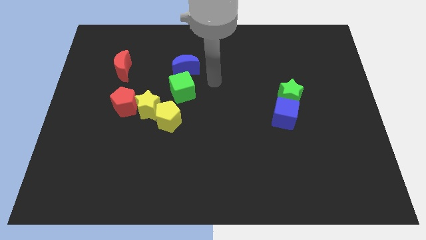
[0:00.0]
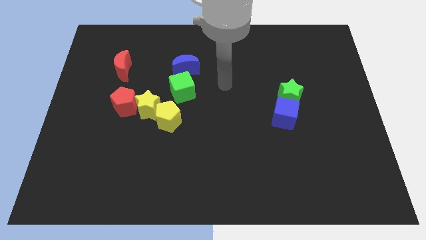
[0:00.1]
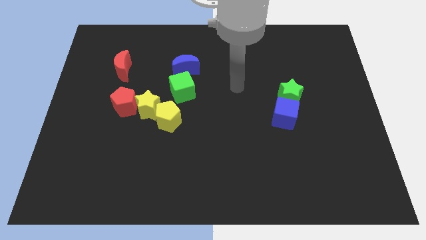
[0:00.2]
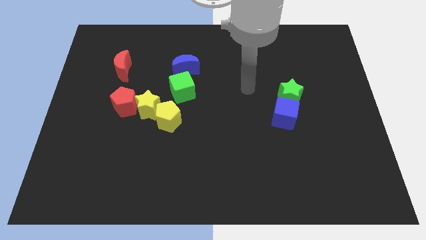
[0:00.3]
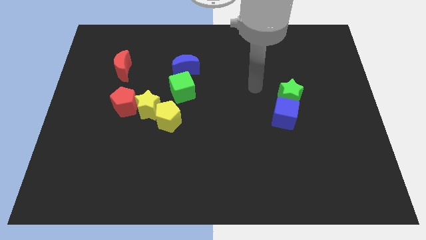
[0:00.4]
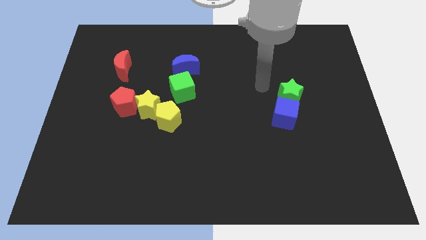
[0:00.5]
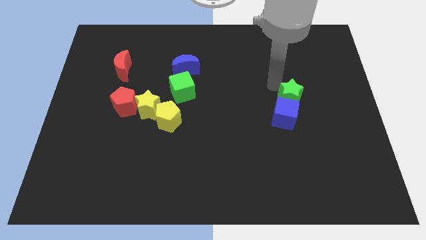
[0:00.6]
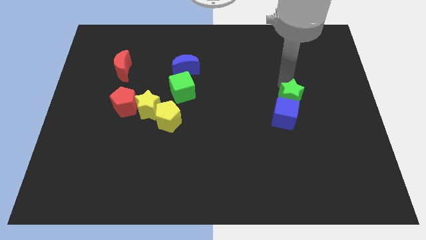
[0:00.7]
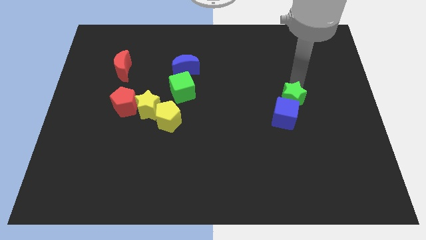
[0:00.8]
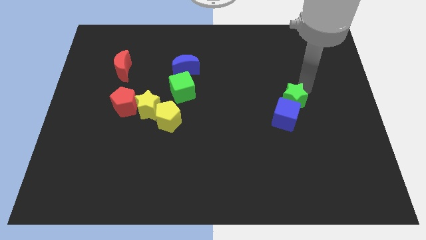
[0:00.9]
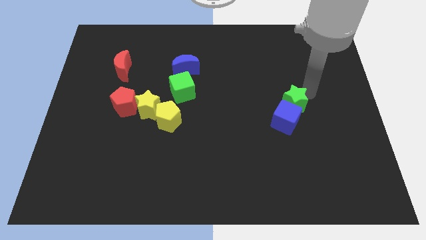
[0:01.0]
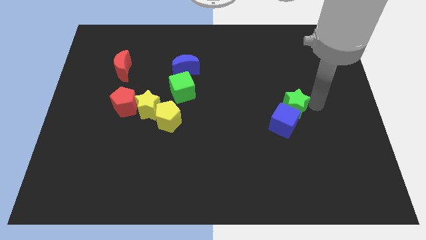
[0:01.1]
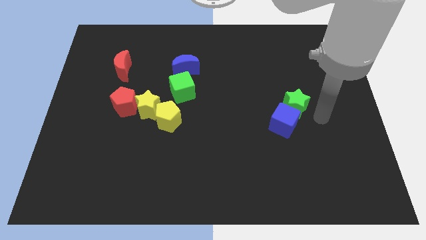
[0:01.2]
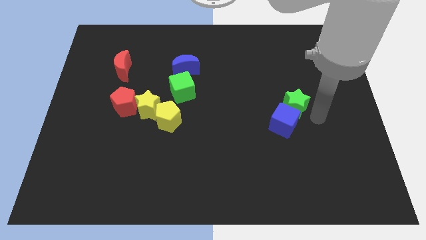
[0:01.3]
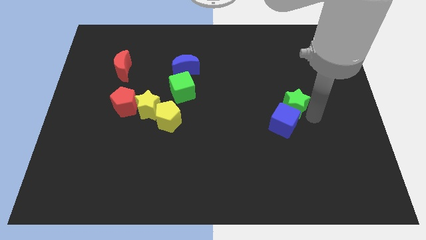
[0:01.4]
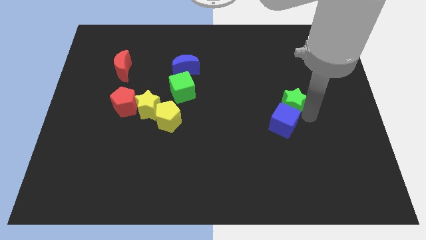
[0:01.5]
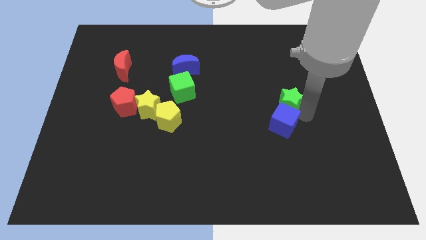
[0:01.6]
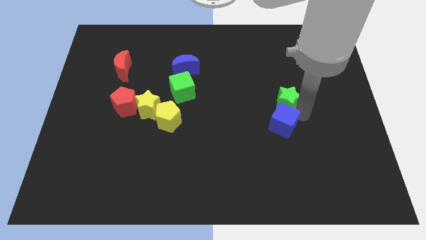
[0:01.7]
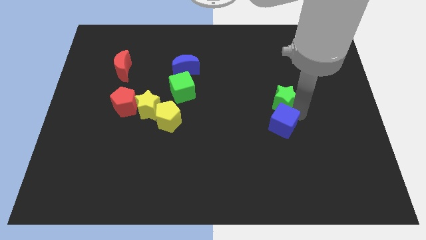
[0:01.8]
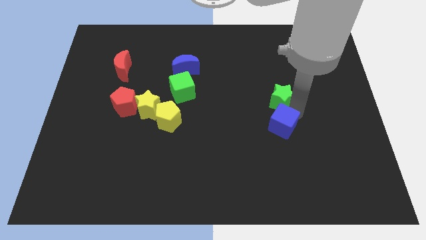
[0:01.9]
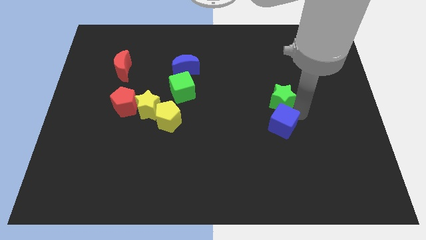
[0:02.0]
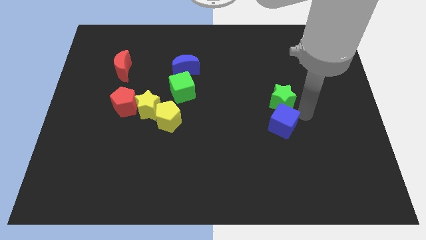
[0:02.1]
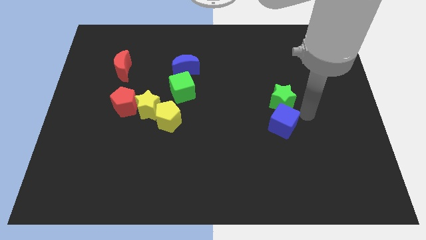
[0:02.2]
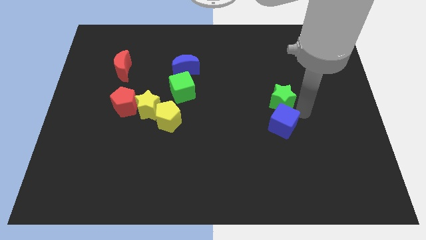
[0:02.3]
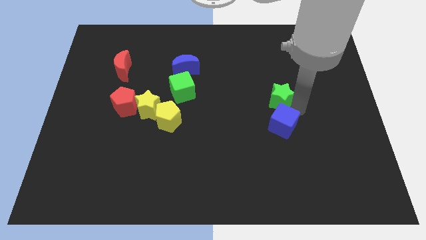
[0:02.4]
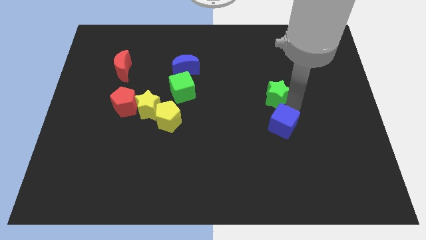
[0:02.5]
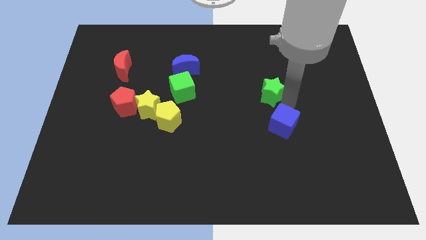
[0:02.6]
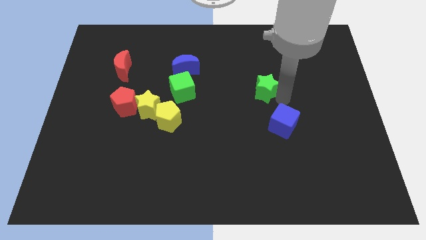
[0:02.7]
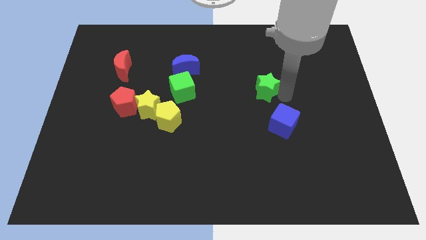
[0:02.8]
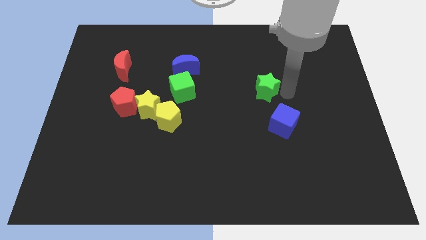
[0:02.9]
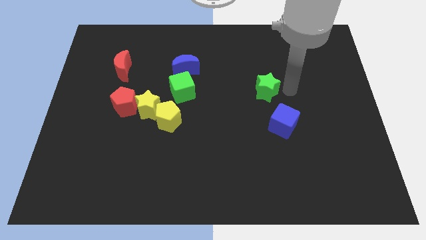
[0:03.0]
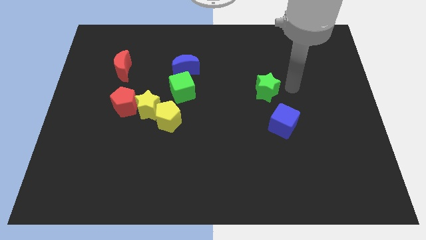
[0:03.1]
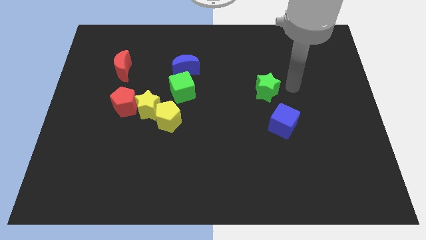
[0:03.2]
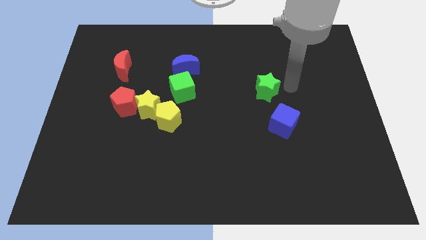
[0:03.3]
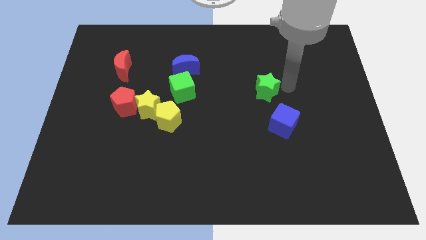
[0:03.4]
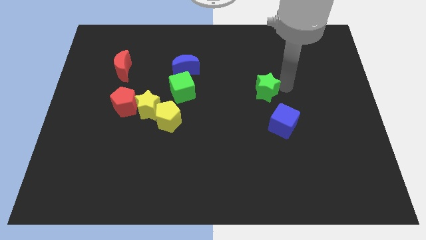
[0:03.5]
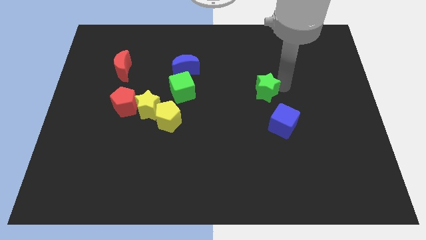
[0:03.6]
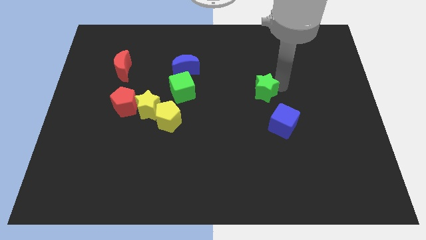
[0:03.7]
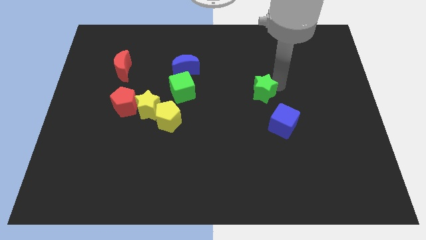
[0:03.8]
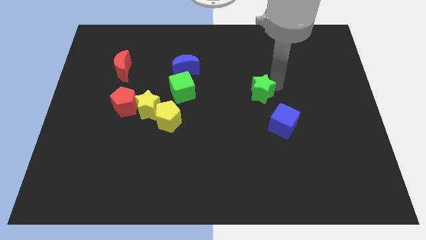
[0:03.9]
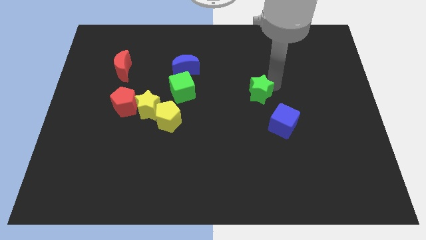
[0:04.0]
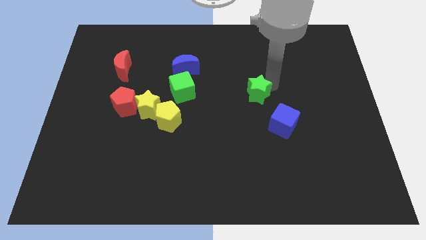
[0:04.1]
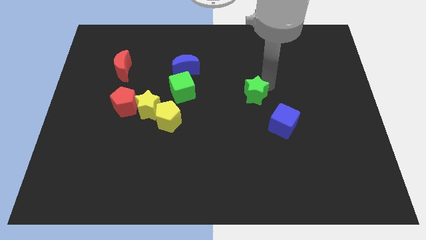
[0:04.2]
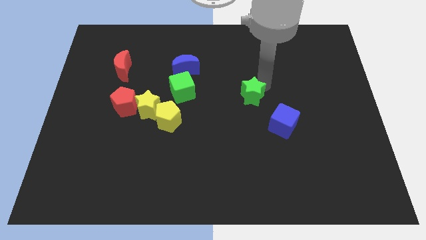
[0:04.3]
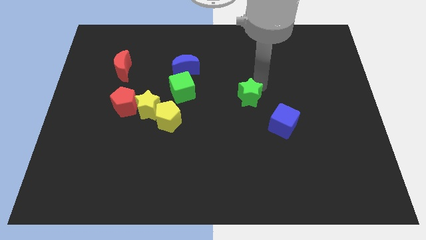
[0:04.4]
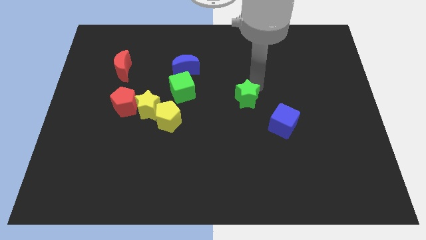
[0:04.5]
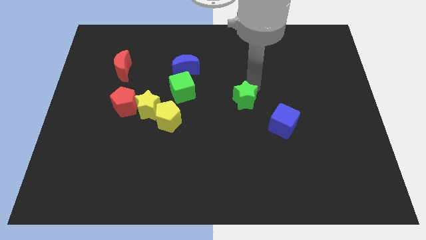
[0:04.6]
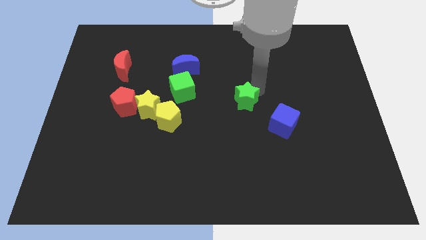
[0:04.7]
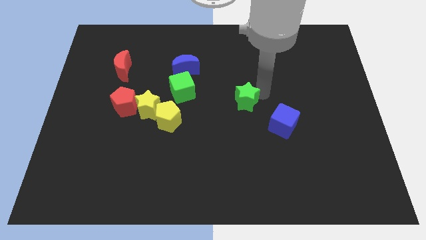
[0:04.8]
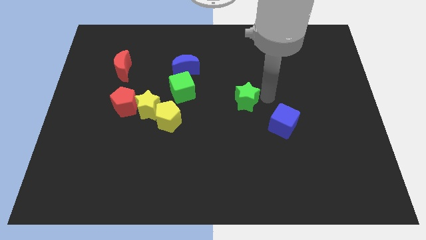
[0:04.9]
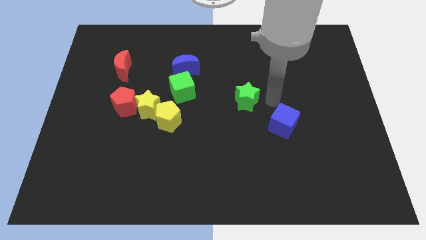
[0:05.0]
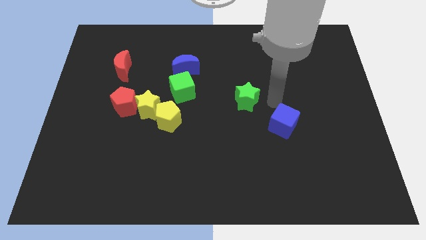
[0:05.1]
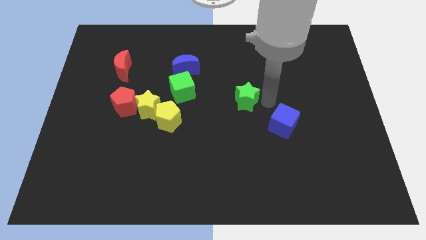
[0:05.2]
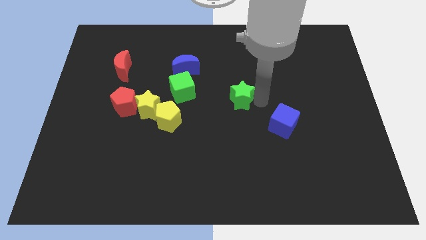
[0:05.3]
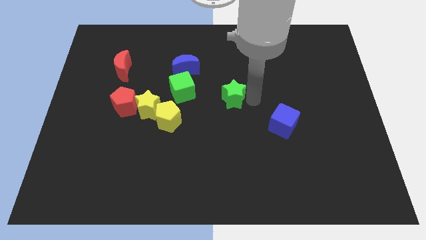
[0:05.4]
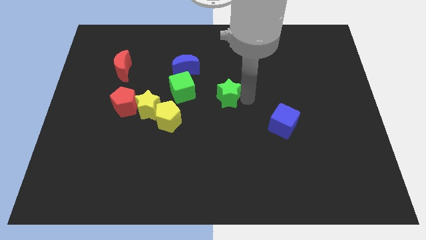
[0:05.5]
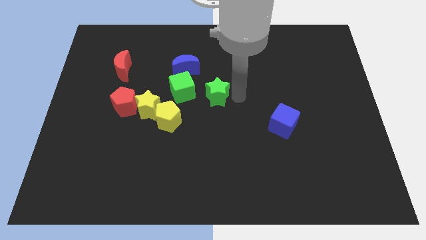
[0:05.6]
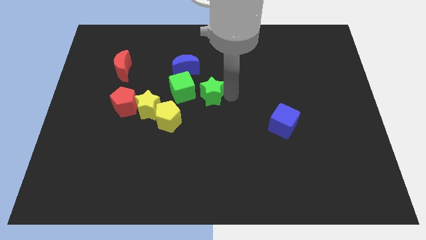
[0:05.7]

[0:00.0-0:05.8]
put the green star diagonally up and to the right of the yellow pentagon
